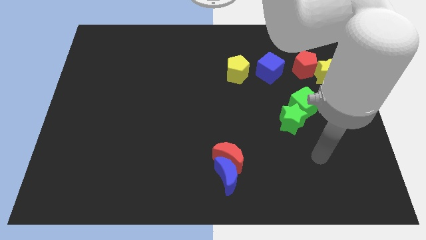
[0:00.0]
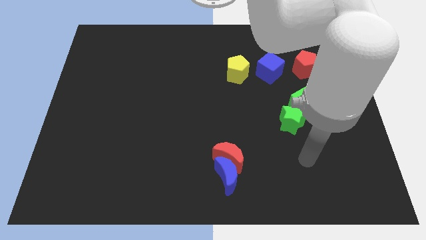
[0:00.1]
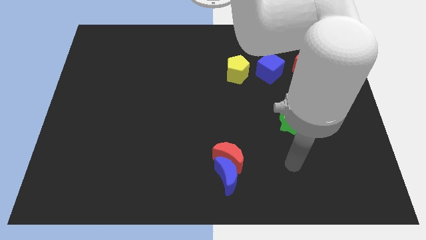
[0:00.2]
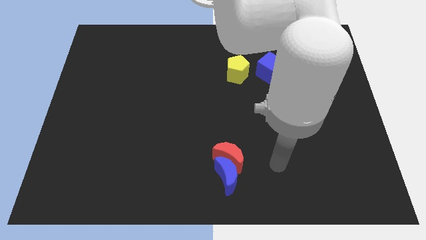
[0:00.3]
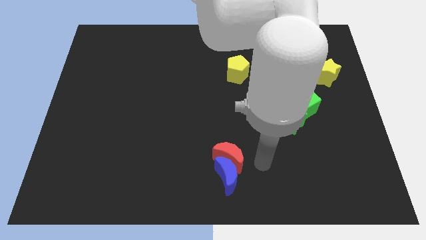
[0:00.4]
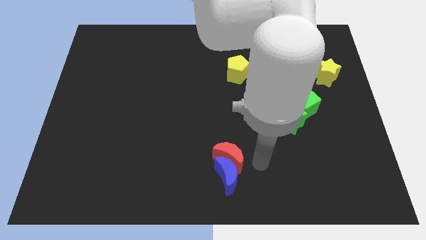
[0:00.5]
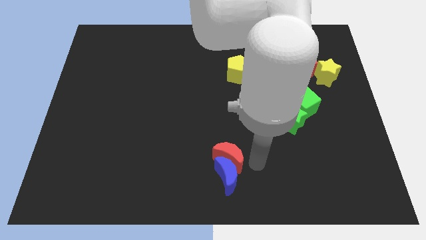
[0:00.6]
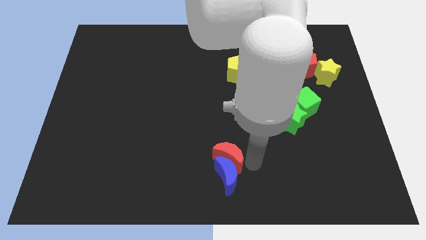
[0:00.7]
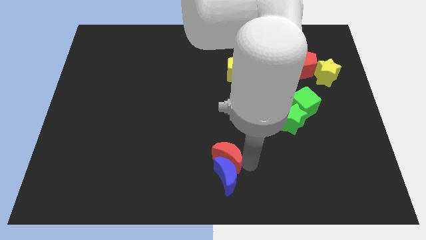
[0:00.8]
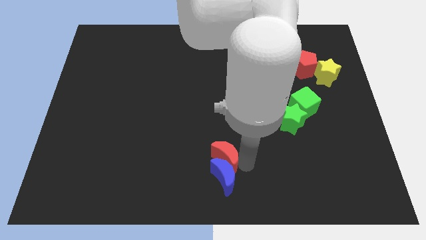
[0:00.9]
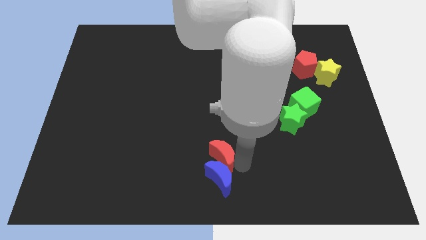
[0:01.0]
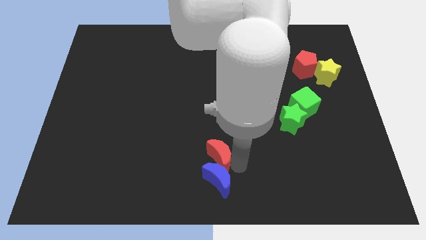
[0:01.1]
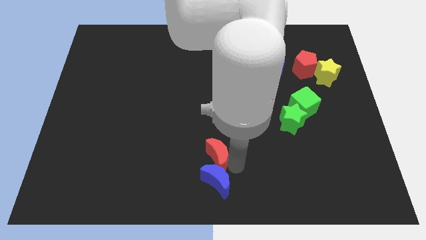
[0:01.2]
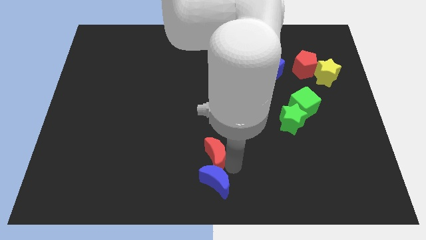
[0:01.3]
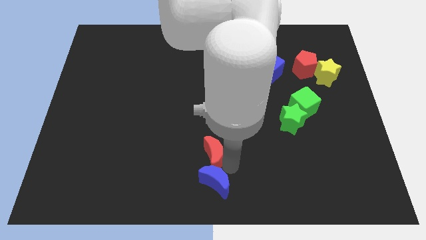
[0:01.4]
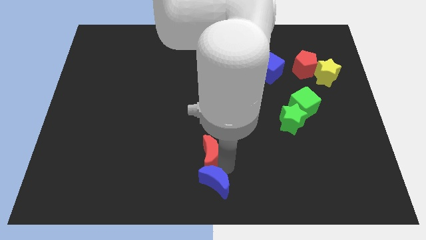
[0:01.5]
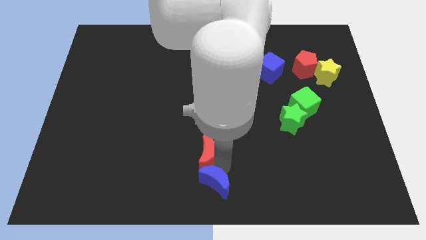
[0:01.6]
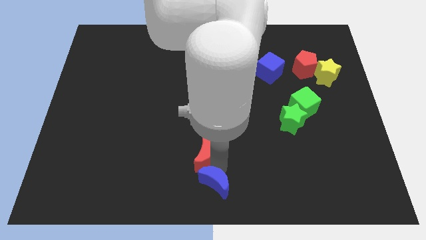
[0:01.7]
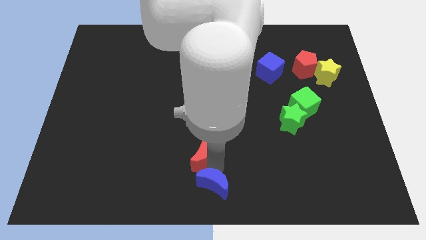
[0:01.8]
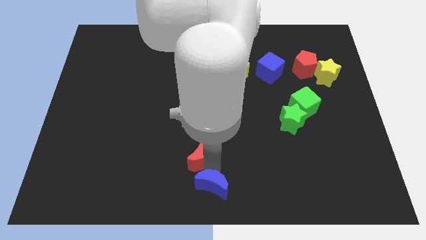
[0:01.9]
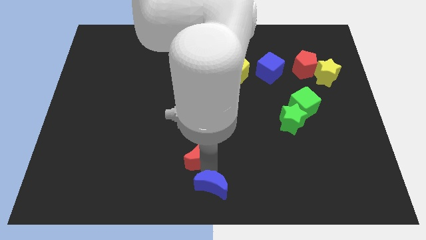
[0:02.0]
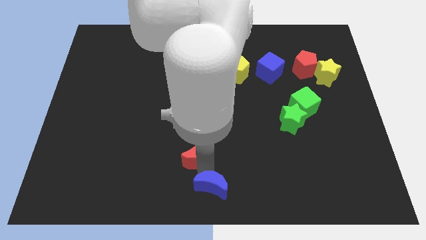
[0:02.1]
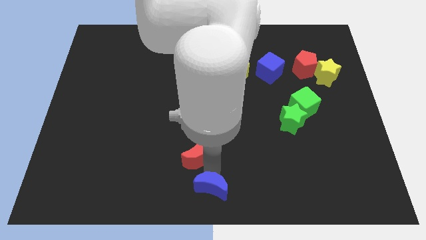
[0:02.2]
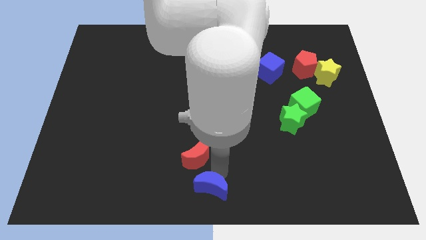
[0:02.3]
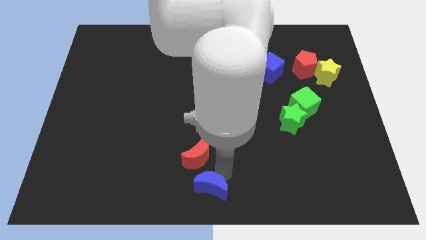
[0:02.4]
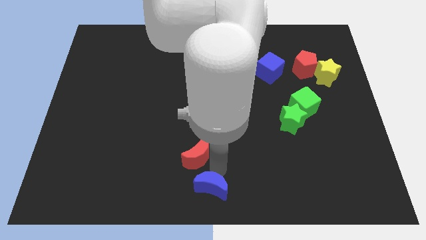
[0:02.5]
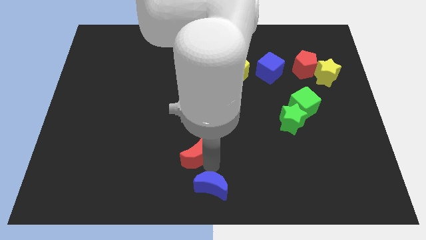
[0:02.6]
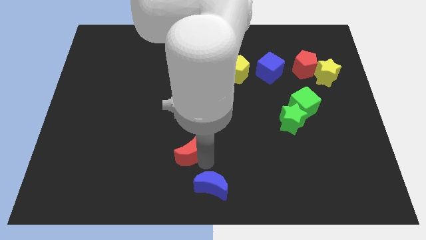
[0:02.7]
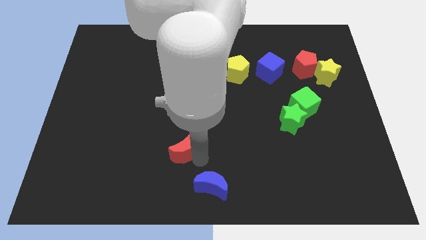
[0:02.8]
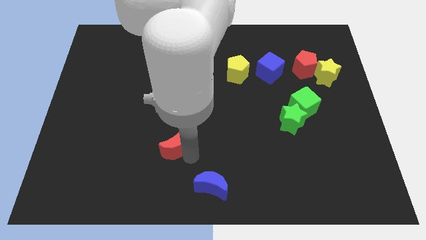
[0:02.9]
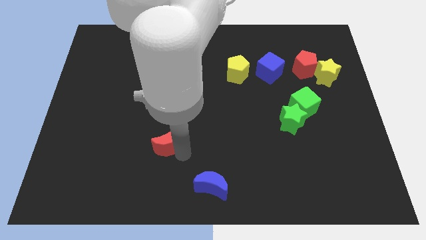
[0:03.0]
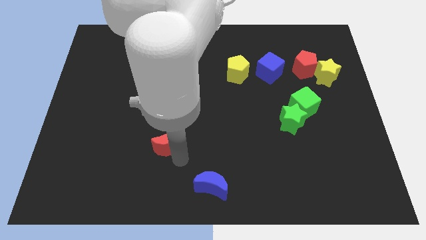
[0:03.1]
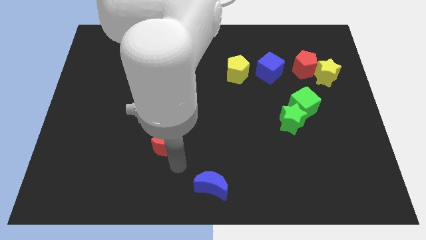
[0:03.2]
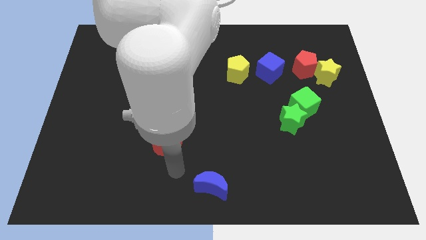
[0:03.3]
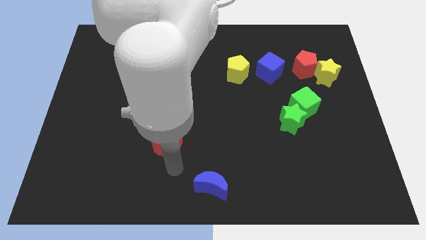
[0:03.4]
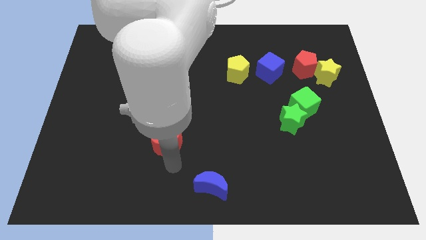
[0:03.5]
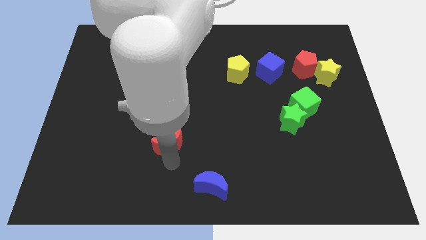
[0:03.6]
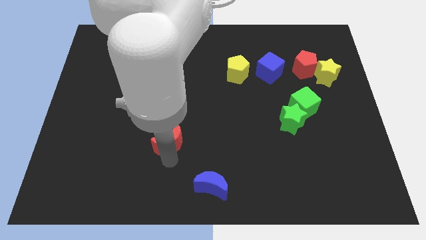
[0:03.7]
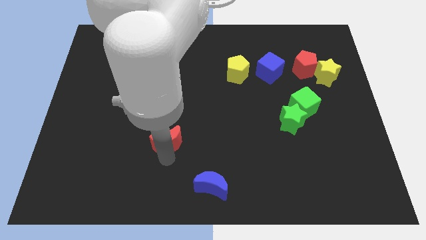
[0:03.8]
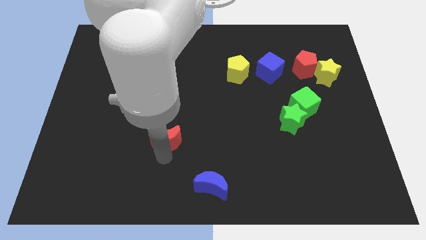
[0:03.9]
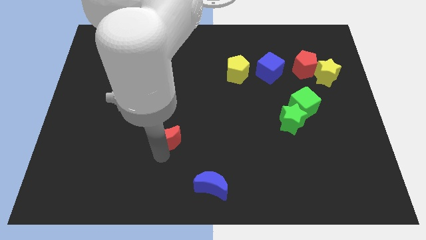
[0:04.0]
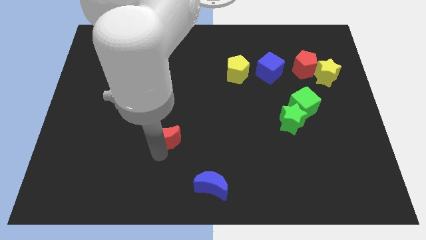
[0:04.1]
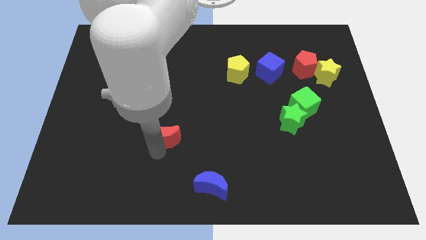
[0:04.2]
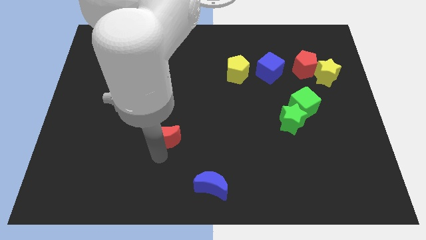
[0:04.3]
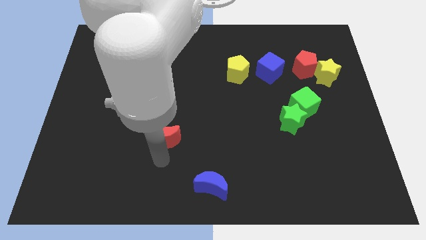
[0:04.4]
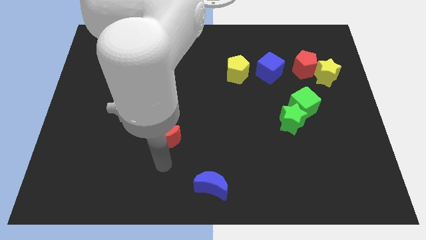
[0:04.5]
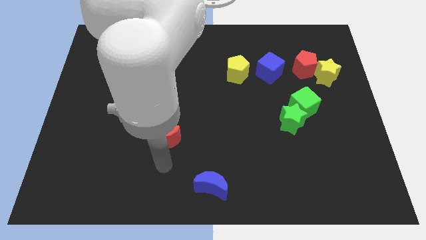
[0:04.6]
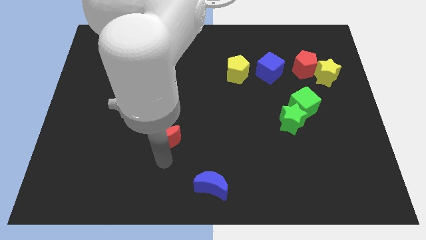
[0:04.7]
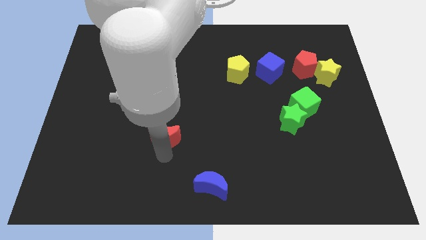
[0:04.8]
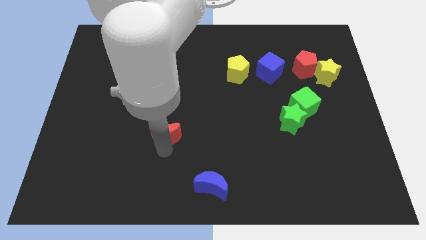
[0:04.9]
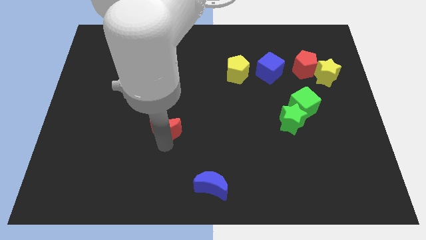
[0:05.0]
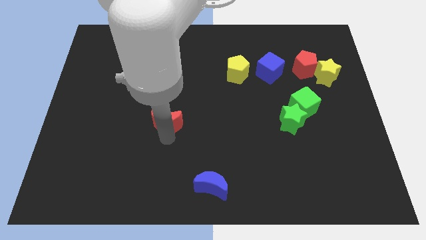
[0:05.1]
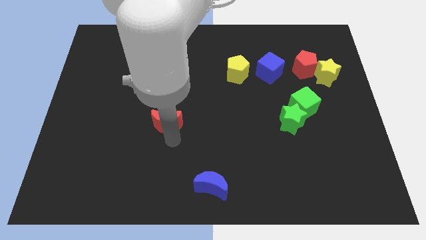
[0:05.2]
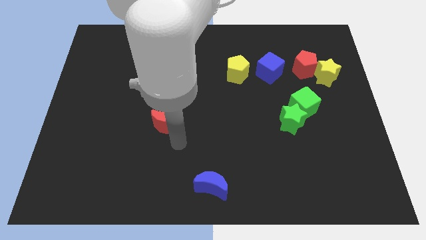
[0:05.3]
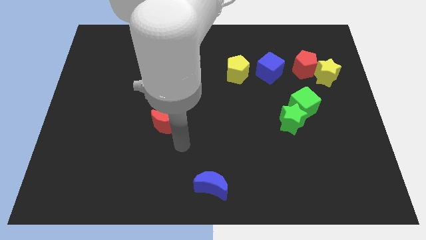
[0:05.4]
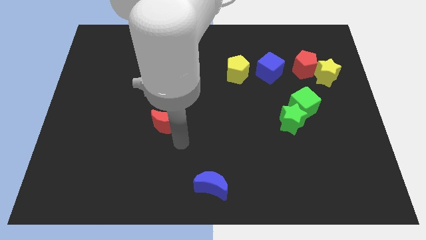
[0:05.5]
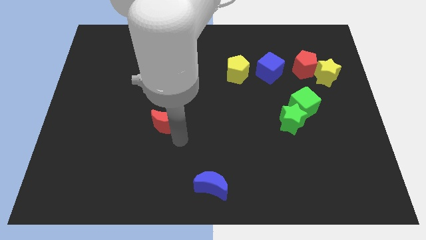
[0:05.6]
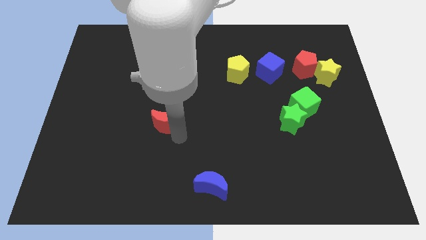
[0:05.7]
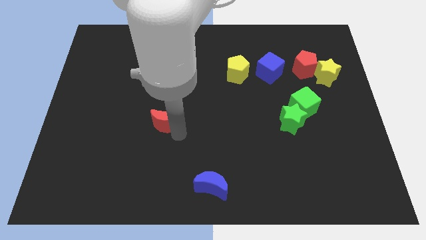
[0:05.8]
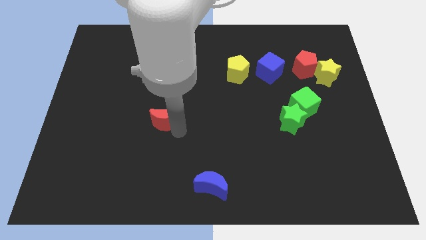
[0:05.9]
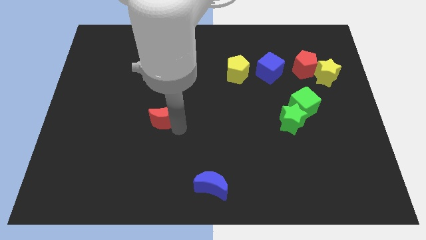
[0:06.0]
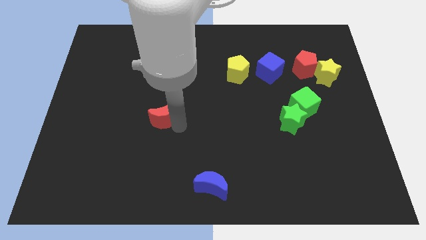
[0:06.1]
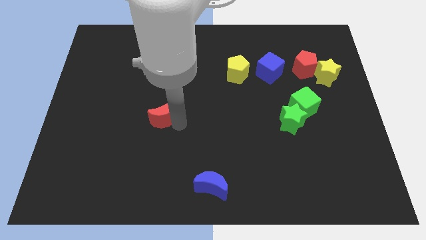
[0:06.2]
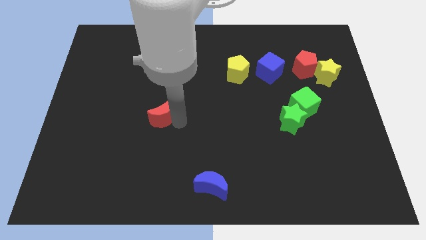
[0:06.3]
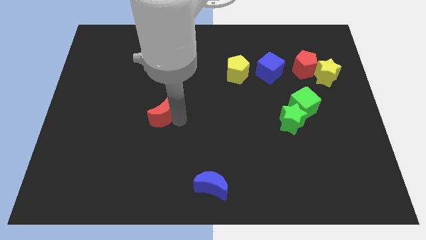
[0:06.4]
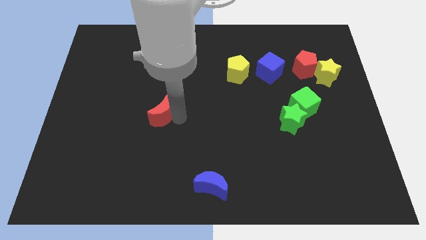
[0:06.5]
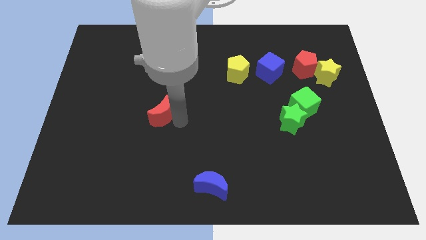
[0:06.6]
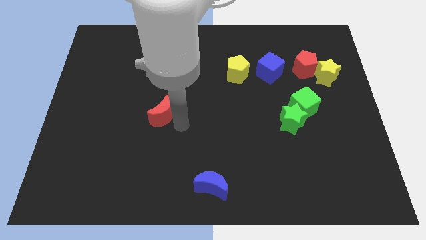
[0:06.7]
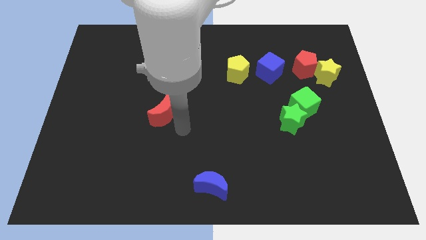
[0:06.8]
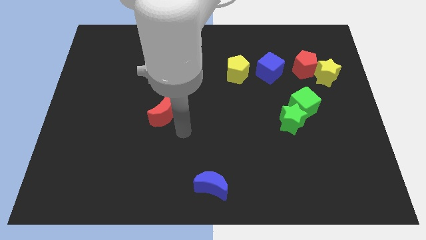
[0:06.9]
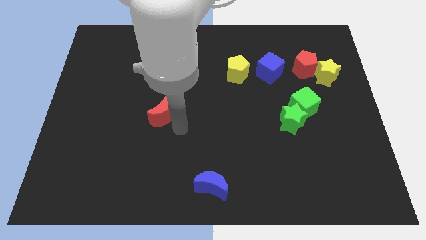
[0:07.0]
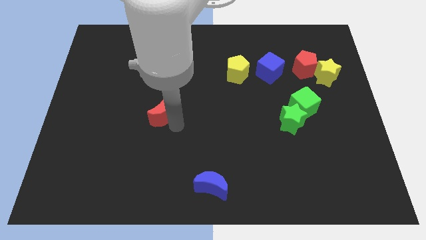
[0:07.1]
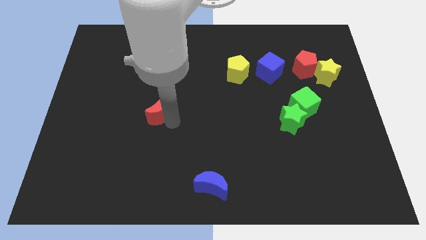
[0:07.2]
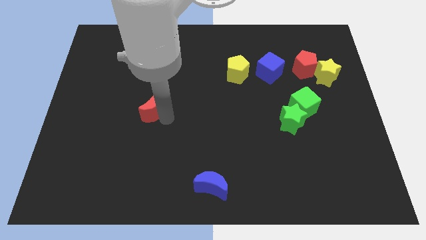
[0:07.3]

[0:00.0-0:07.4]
slide the red moon upwards and to the left diagonally

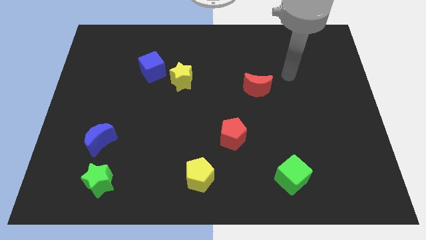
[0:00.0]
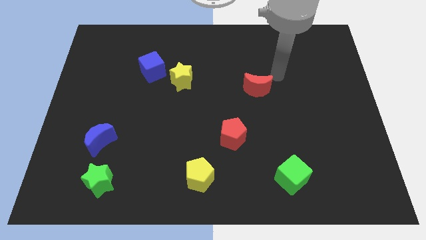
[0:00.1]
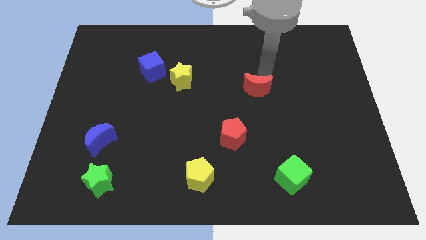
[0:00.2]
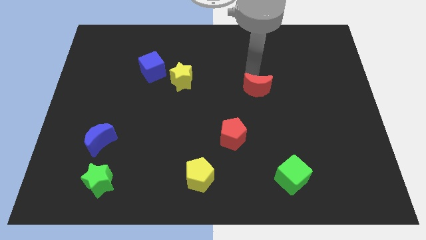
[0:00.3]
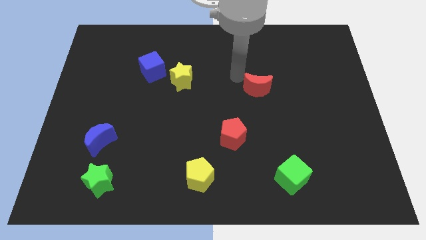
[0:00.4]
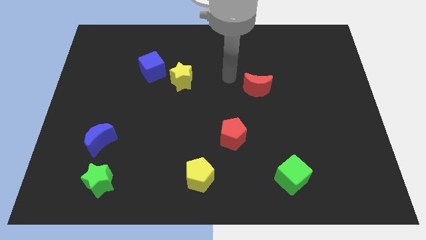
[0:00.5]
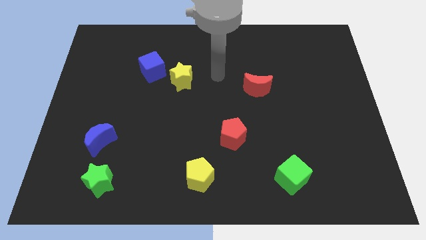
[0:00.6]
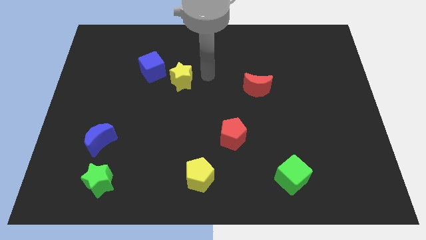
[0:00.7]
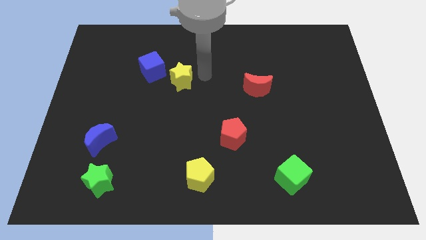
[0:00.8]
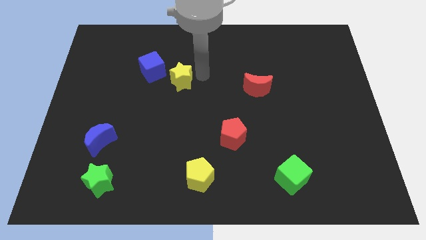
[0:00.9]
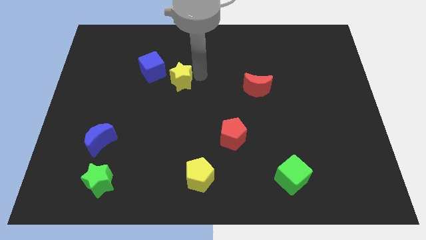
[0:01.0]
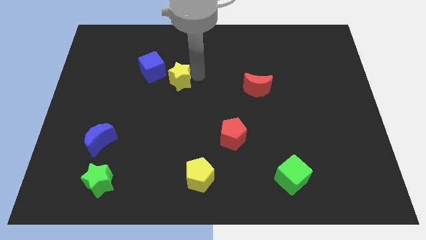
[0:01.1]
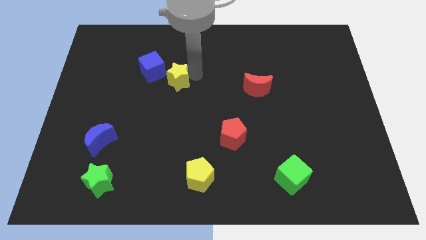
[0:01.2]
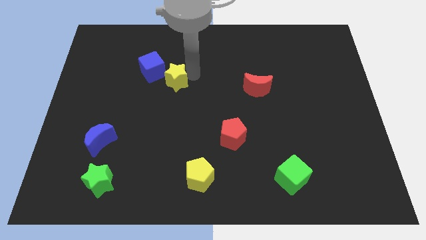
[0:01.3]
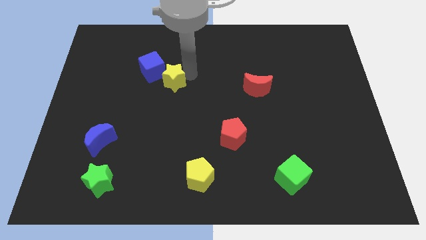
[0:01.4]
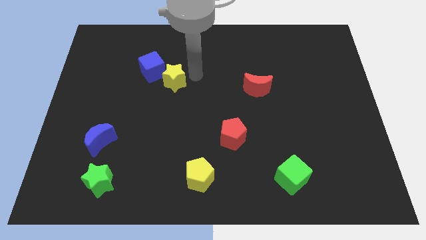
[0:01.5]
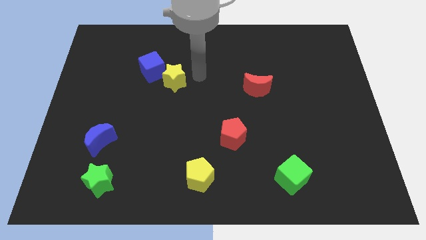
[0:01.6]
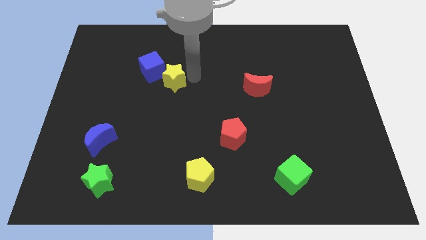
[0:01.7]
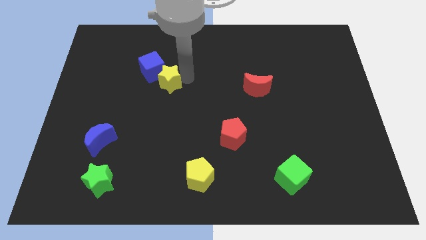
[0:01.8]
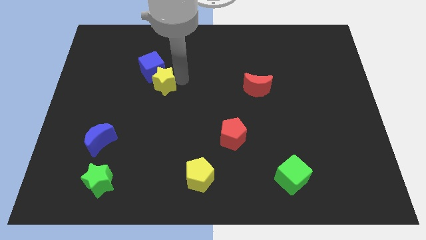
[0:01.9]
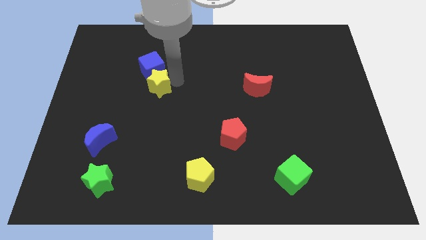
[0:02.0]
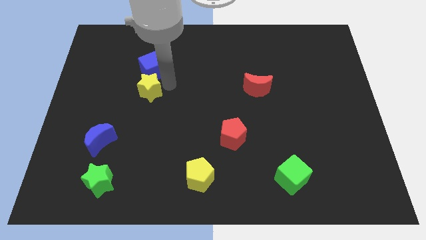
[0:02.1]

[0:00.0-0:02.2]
slightly push the yellow star left
